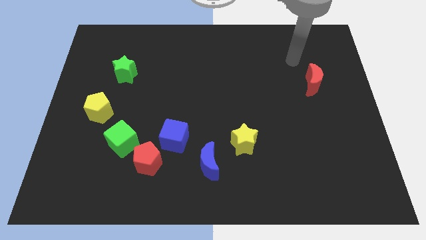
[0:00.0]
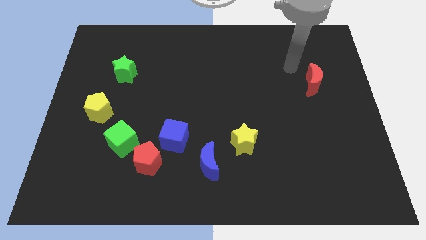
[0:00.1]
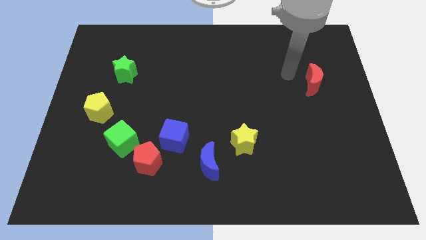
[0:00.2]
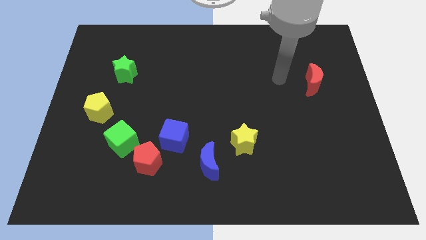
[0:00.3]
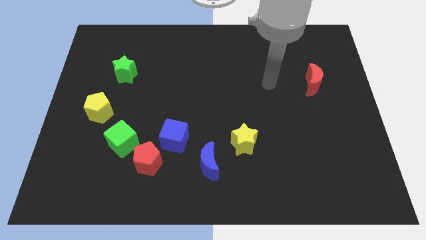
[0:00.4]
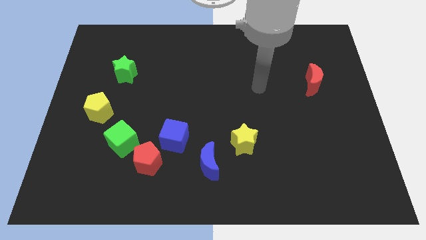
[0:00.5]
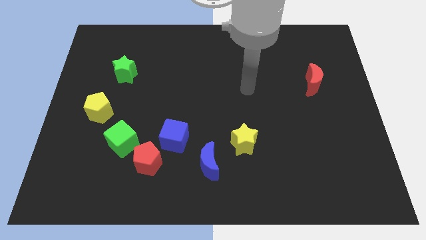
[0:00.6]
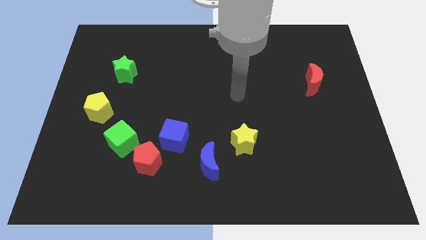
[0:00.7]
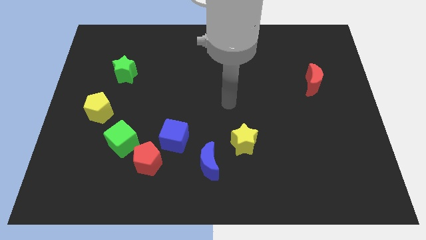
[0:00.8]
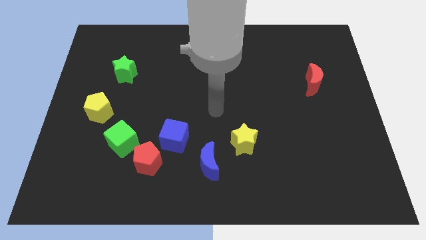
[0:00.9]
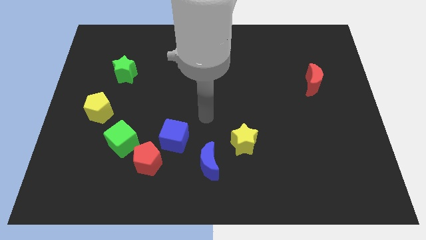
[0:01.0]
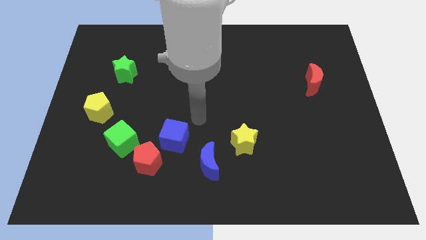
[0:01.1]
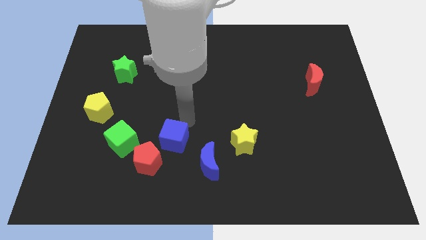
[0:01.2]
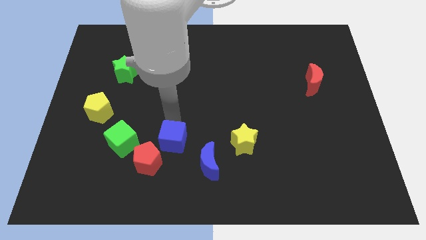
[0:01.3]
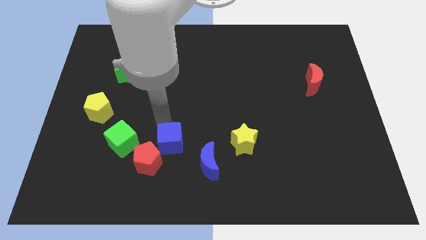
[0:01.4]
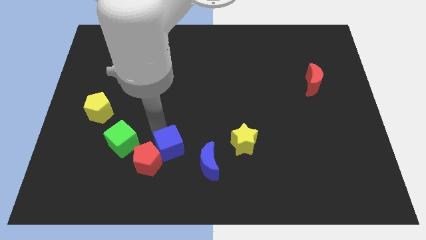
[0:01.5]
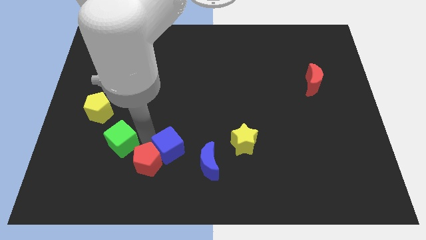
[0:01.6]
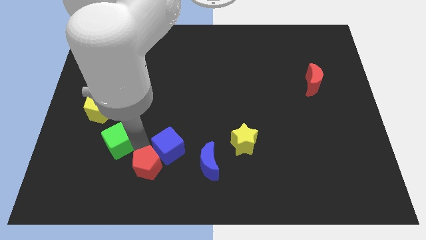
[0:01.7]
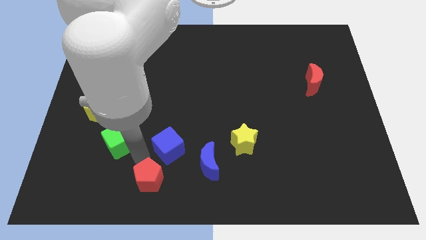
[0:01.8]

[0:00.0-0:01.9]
separate the green cube from the red pentagon

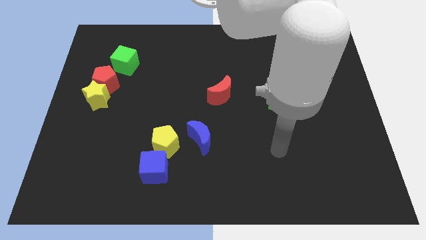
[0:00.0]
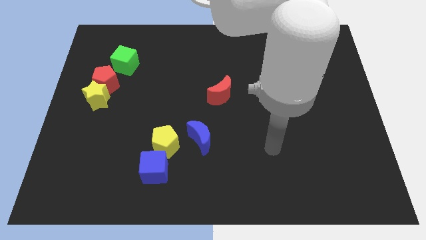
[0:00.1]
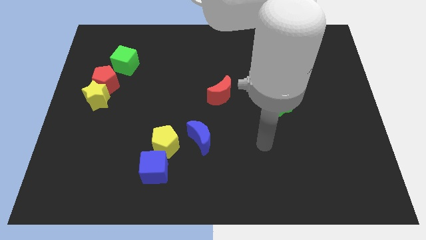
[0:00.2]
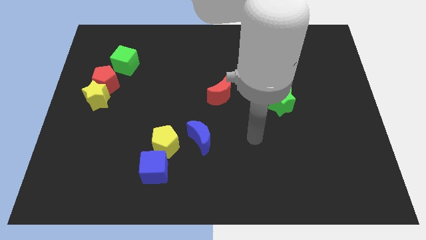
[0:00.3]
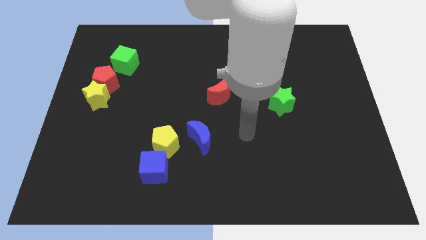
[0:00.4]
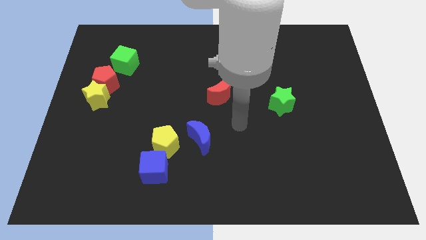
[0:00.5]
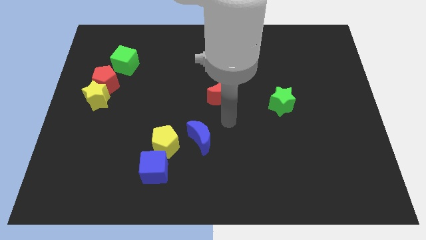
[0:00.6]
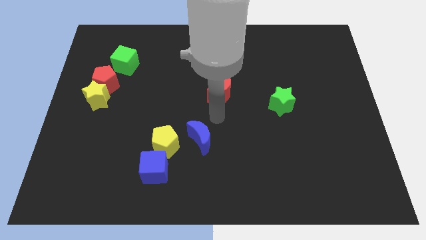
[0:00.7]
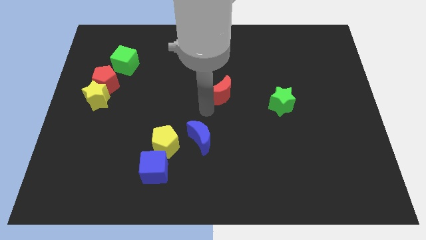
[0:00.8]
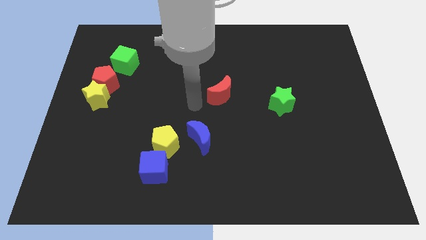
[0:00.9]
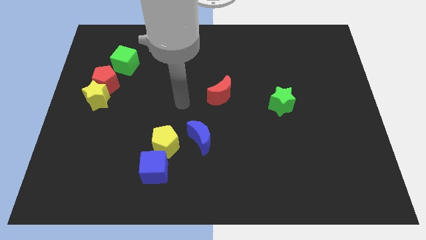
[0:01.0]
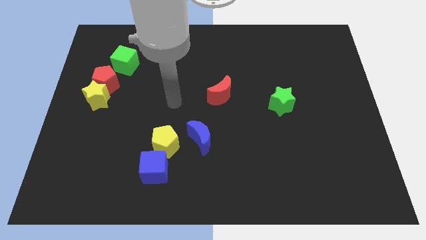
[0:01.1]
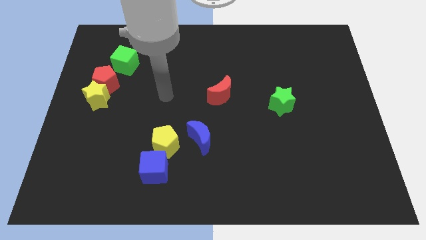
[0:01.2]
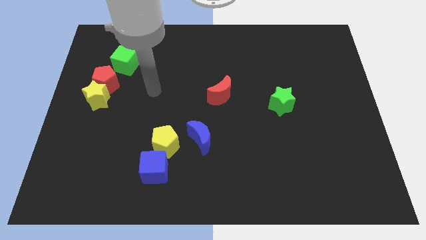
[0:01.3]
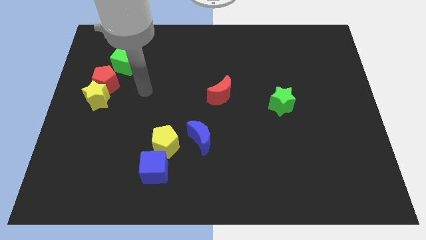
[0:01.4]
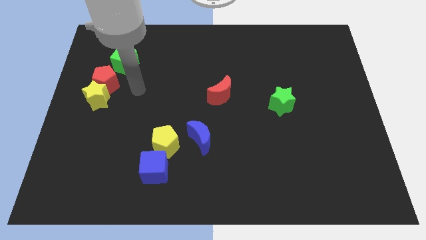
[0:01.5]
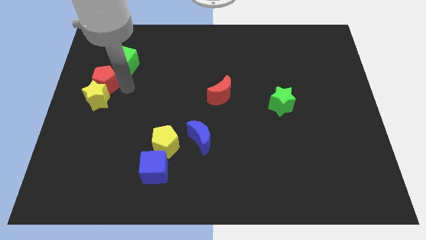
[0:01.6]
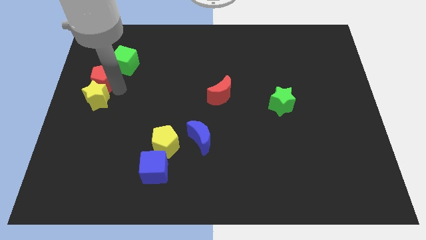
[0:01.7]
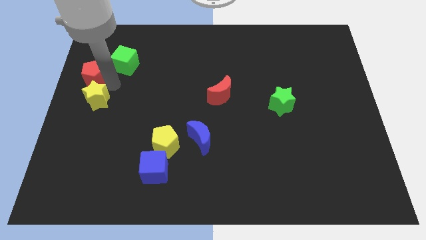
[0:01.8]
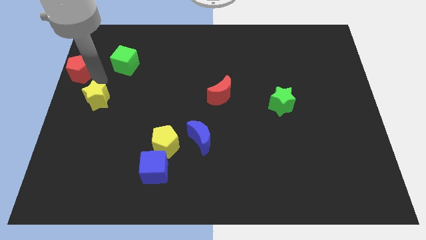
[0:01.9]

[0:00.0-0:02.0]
separate the yellow star from the red pentagon

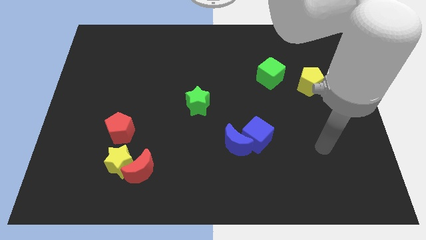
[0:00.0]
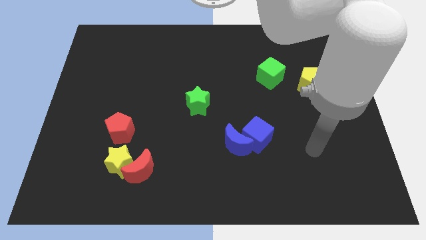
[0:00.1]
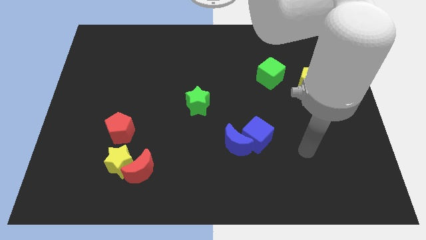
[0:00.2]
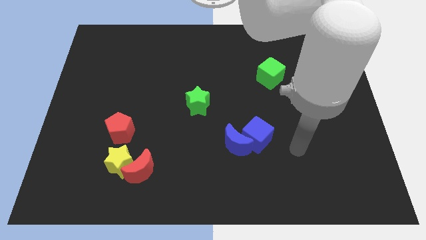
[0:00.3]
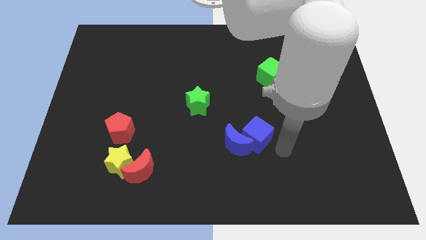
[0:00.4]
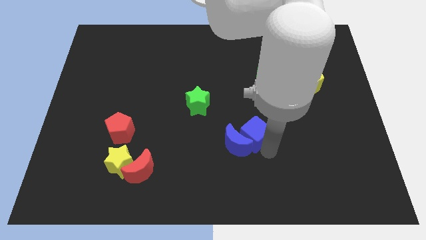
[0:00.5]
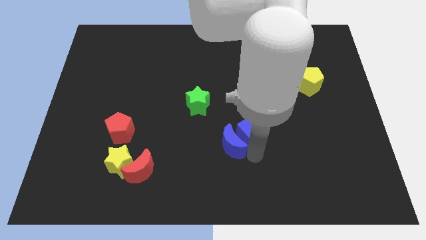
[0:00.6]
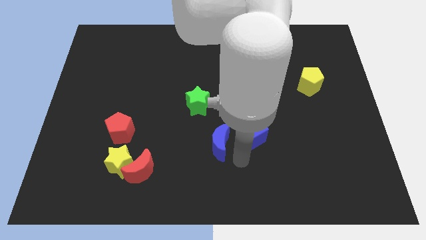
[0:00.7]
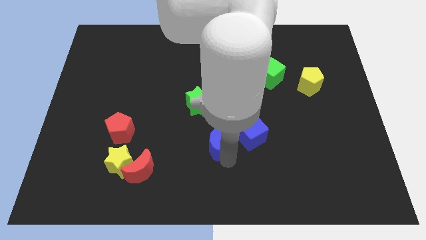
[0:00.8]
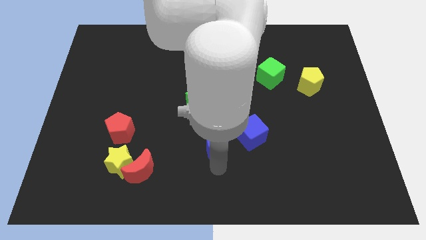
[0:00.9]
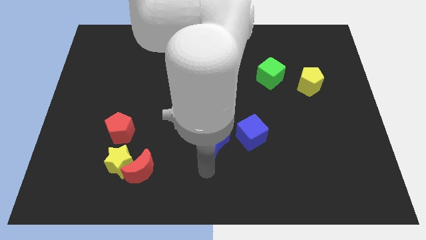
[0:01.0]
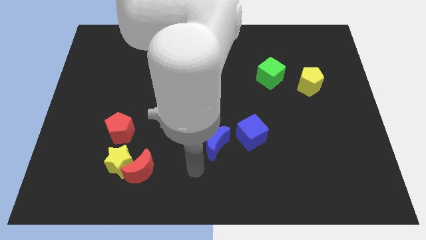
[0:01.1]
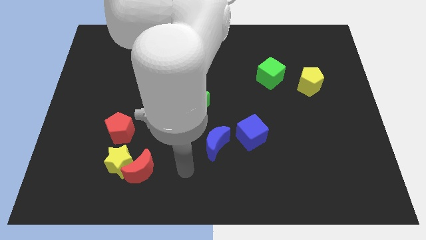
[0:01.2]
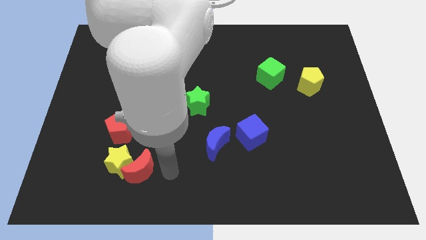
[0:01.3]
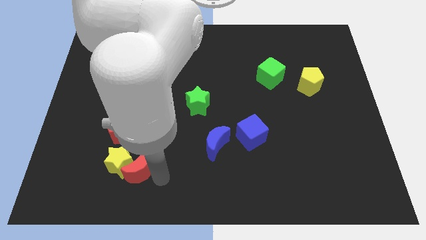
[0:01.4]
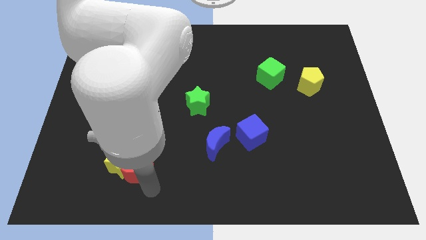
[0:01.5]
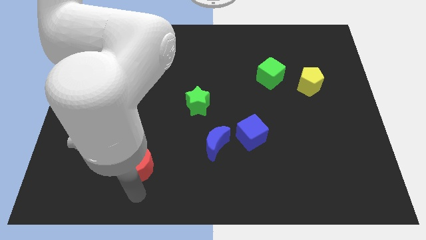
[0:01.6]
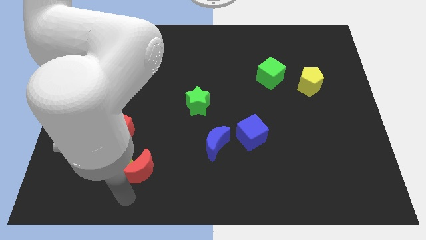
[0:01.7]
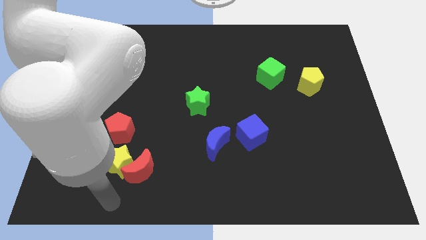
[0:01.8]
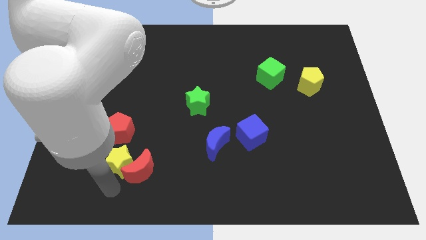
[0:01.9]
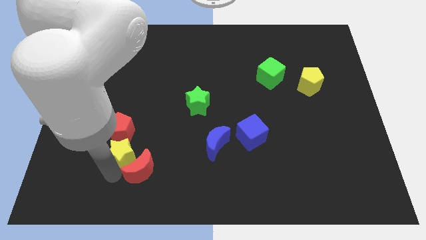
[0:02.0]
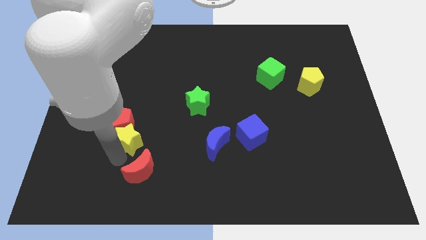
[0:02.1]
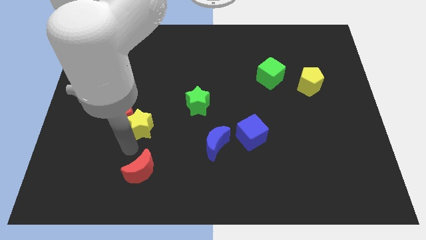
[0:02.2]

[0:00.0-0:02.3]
separate the red moon from the yellow star

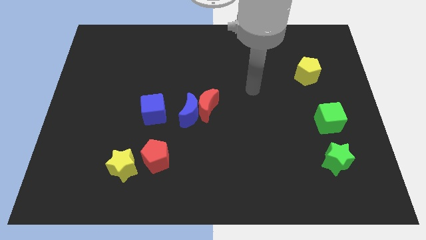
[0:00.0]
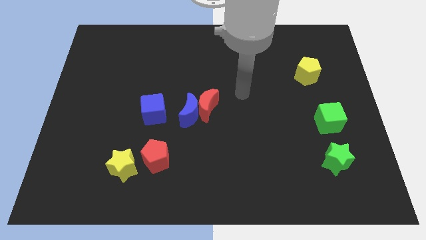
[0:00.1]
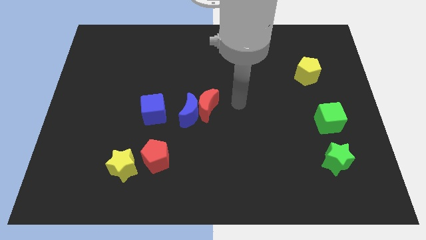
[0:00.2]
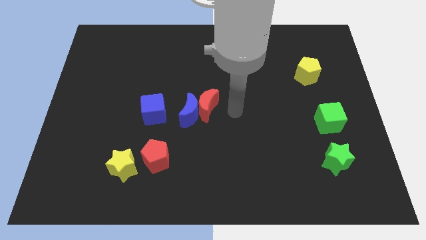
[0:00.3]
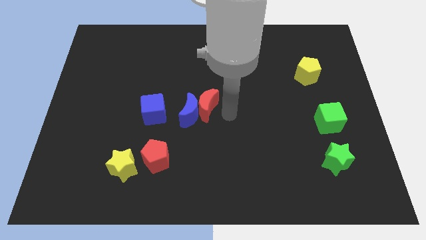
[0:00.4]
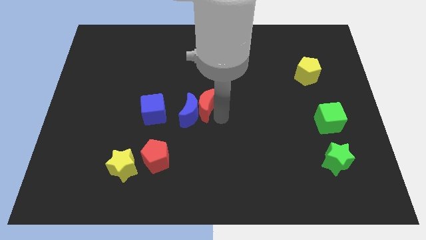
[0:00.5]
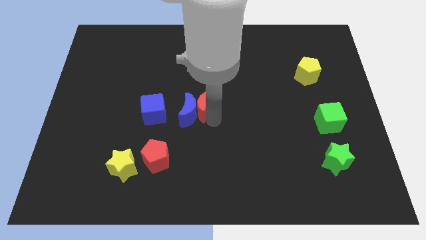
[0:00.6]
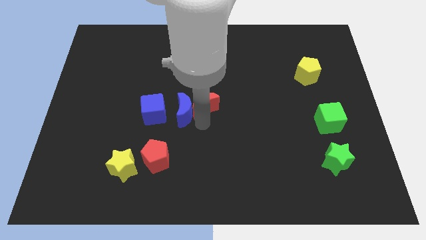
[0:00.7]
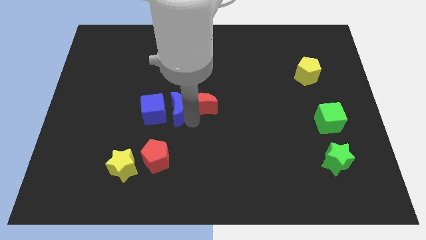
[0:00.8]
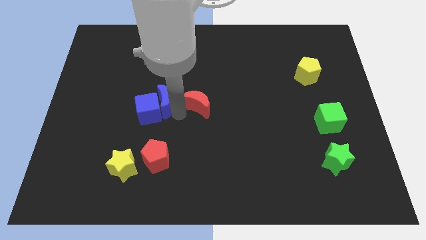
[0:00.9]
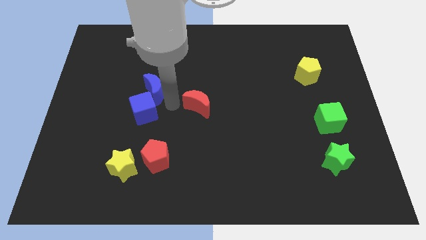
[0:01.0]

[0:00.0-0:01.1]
pull the red moon apart from the blue moon

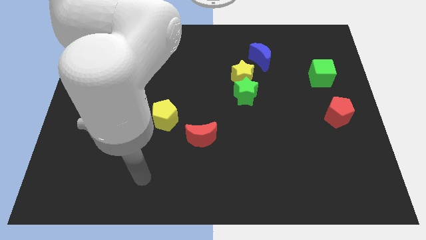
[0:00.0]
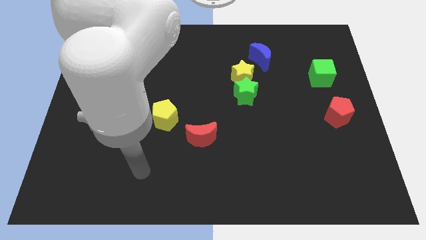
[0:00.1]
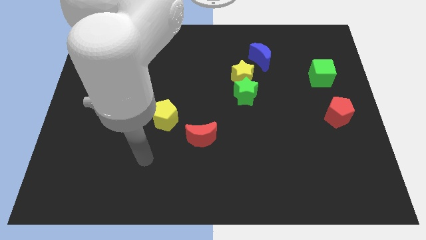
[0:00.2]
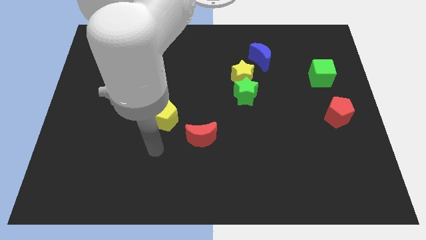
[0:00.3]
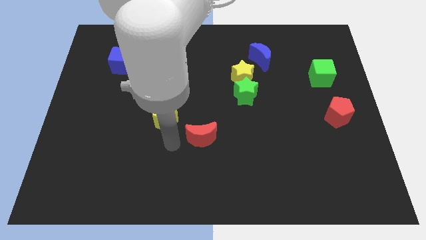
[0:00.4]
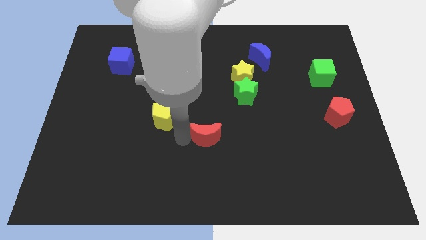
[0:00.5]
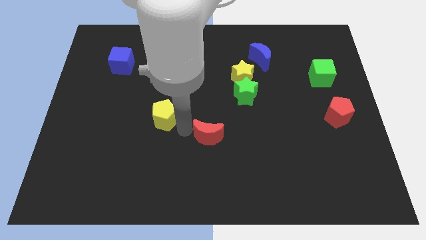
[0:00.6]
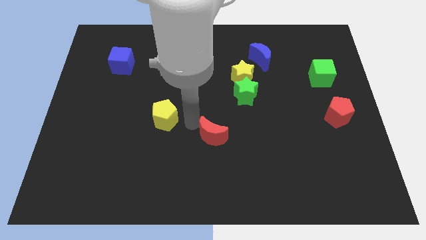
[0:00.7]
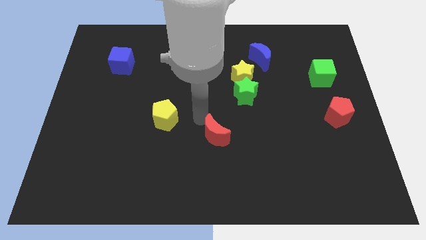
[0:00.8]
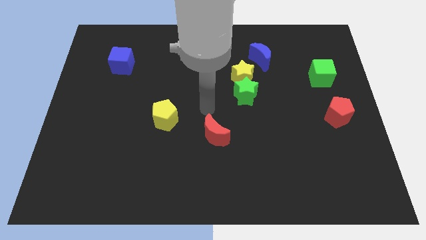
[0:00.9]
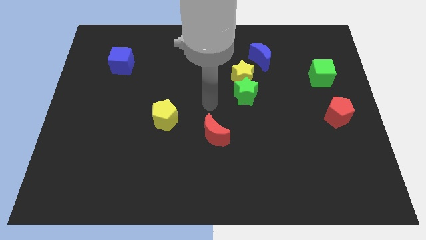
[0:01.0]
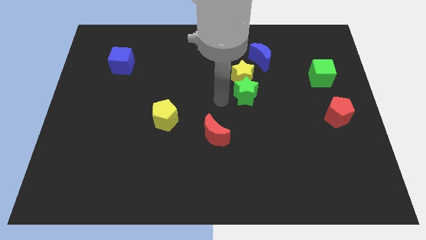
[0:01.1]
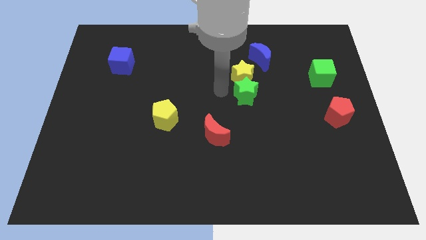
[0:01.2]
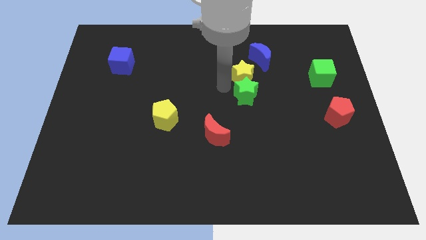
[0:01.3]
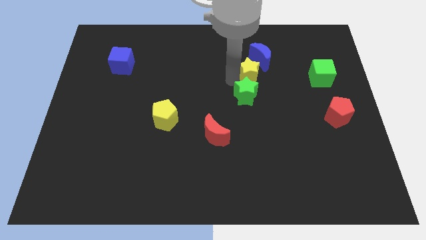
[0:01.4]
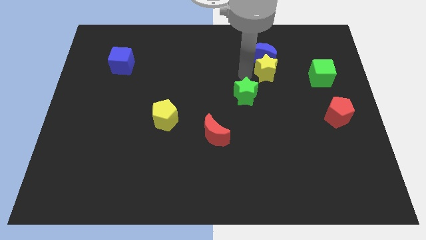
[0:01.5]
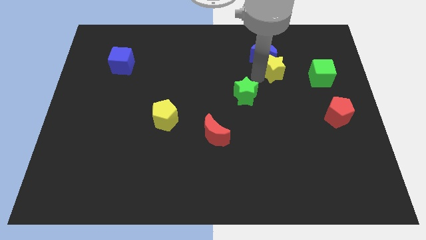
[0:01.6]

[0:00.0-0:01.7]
pull the green star apart from the yellow star

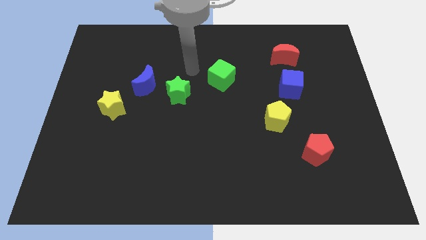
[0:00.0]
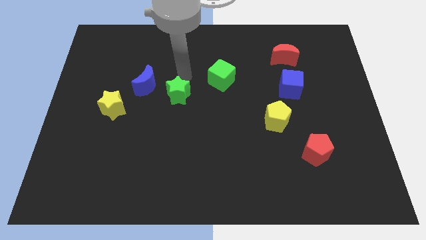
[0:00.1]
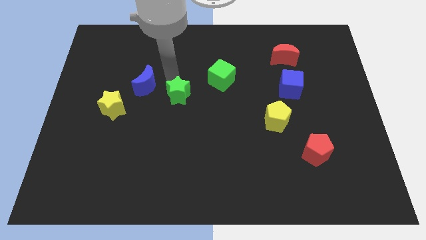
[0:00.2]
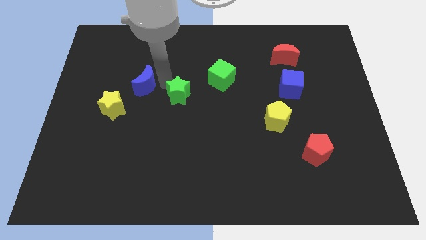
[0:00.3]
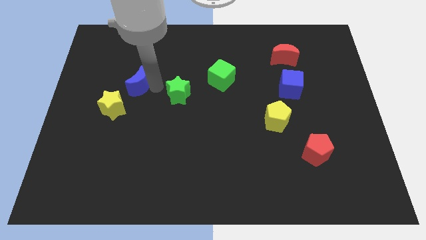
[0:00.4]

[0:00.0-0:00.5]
move the green star away from the blue moon
